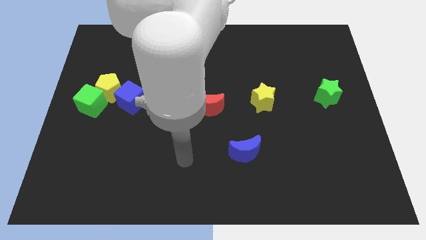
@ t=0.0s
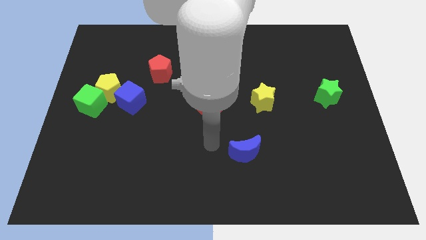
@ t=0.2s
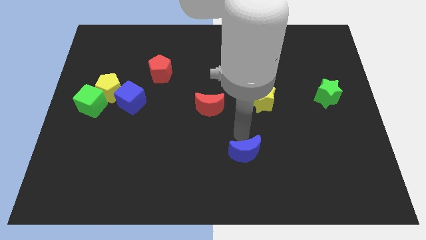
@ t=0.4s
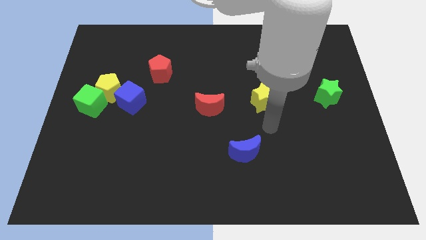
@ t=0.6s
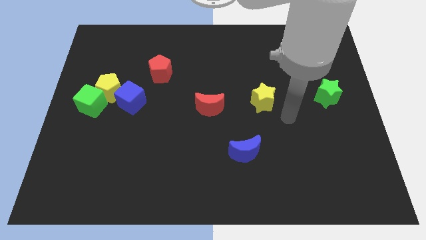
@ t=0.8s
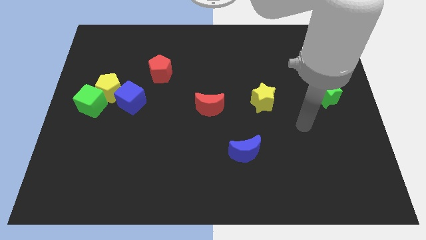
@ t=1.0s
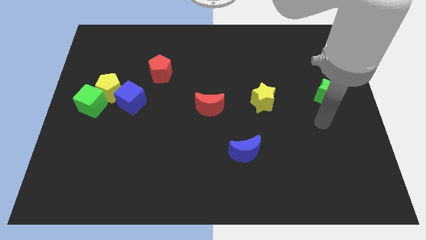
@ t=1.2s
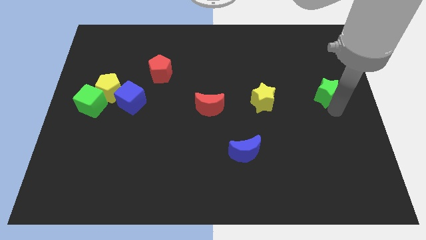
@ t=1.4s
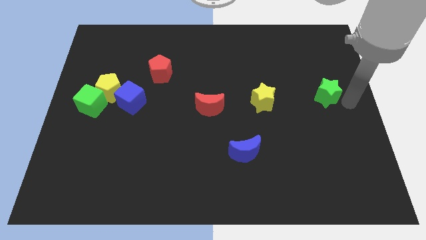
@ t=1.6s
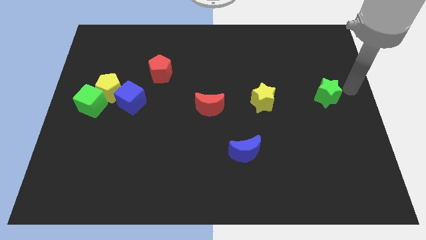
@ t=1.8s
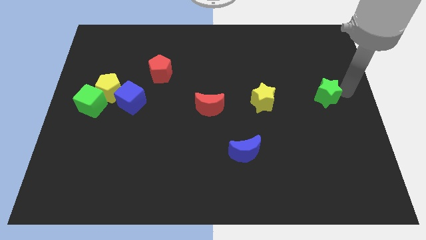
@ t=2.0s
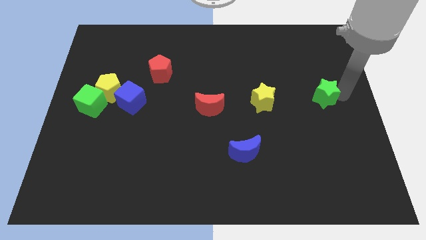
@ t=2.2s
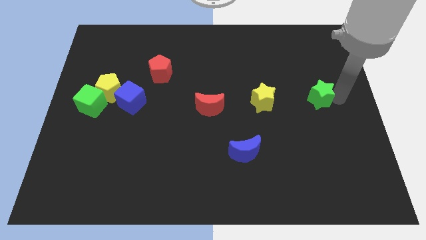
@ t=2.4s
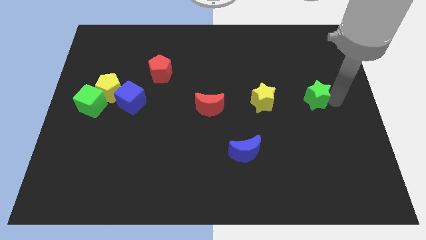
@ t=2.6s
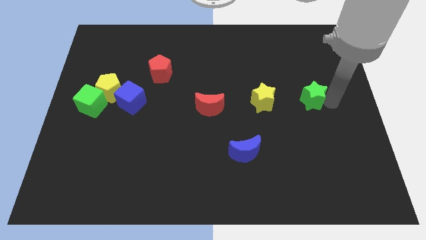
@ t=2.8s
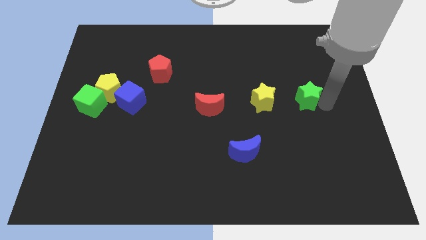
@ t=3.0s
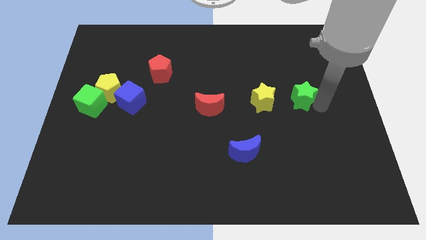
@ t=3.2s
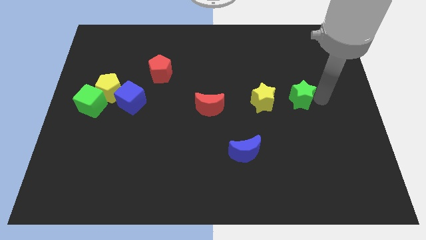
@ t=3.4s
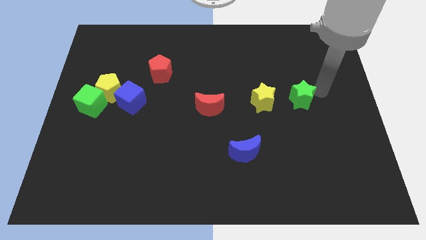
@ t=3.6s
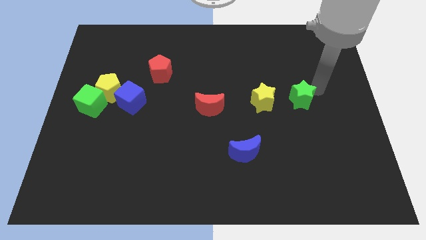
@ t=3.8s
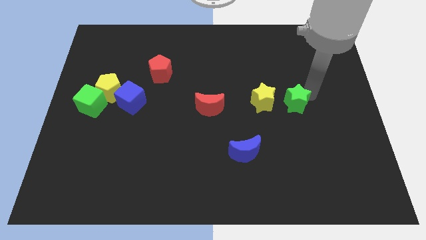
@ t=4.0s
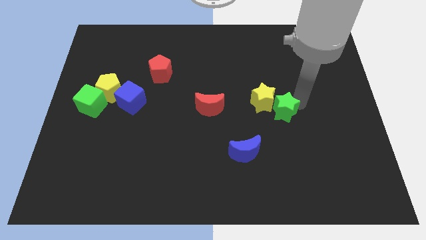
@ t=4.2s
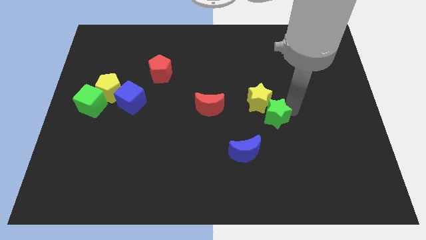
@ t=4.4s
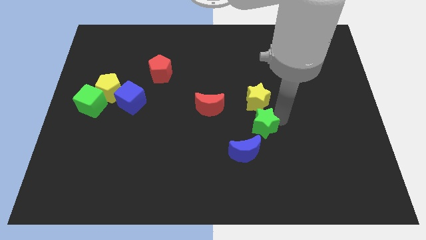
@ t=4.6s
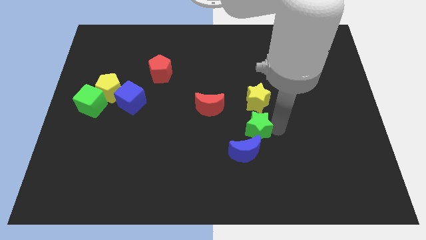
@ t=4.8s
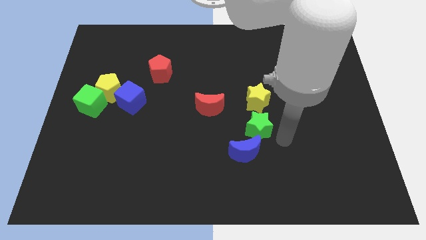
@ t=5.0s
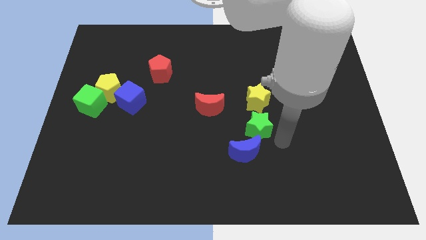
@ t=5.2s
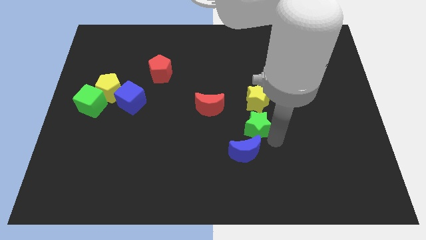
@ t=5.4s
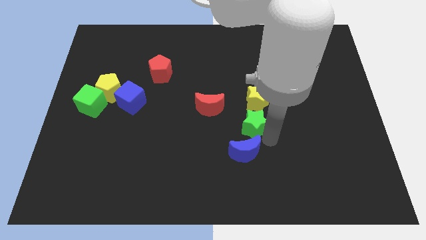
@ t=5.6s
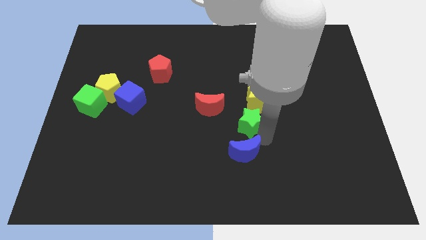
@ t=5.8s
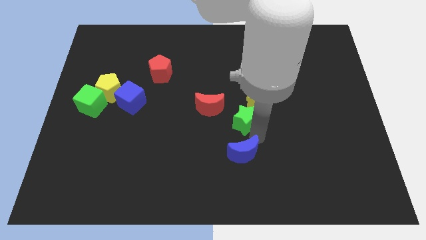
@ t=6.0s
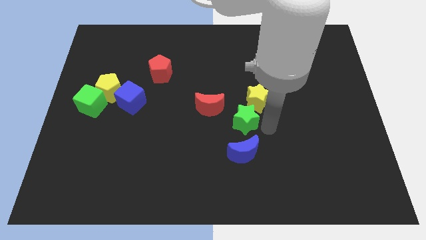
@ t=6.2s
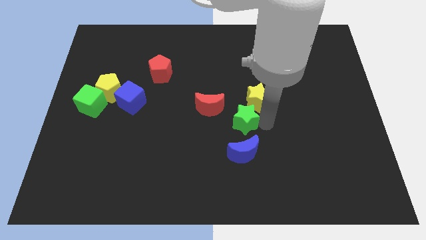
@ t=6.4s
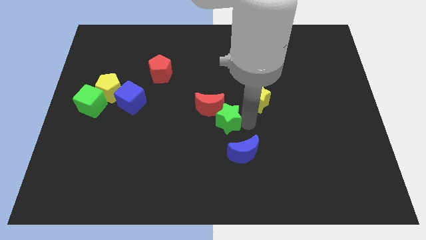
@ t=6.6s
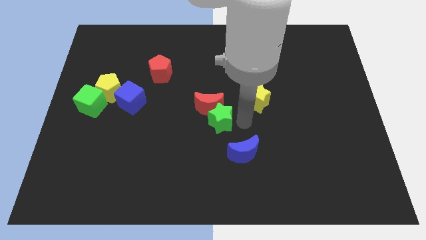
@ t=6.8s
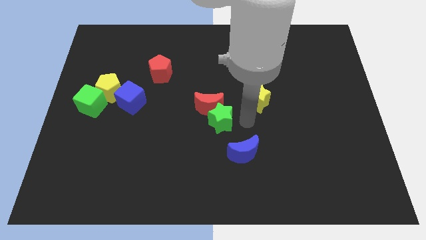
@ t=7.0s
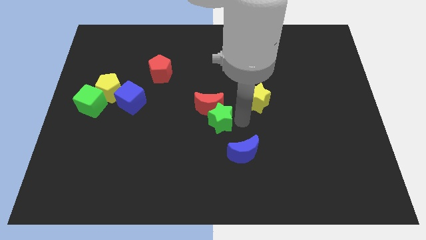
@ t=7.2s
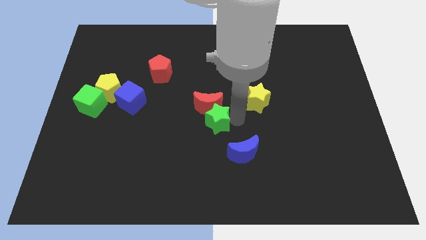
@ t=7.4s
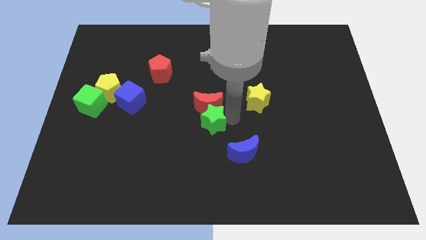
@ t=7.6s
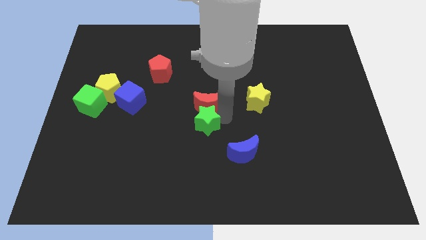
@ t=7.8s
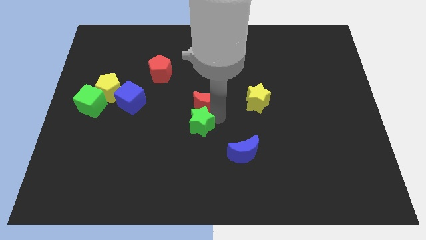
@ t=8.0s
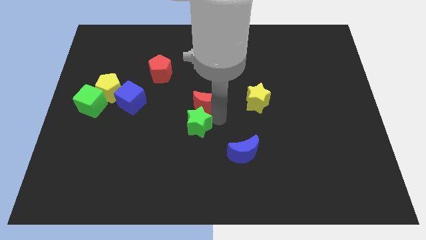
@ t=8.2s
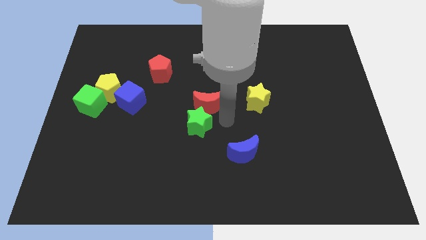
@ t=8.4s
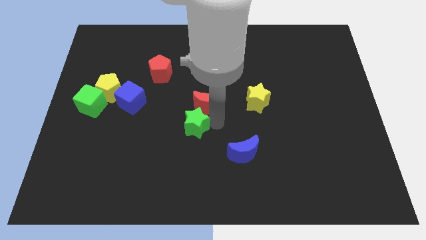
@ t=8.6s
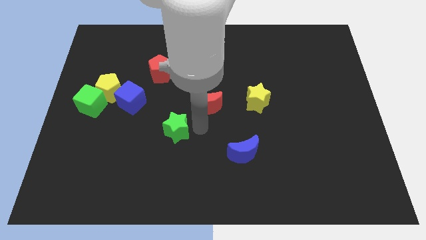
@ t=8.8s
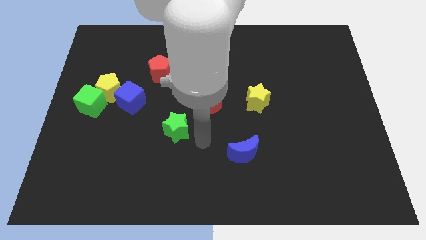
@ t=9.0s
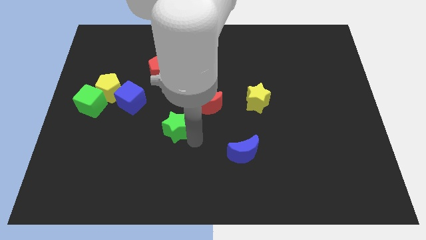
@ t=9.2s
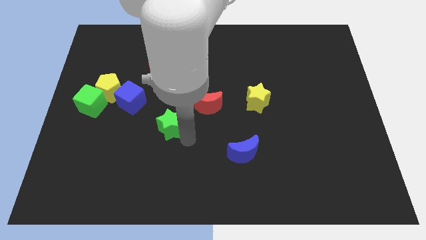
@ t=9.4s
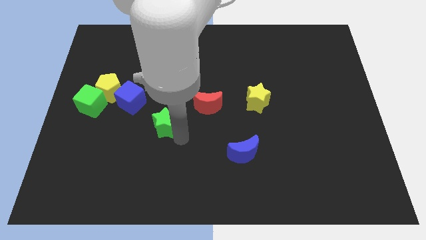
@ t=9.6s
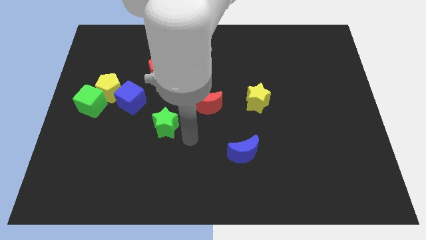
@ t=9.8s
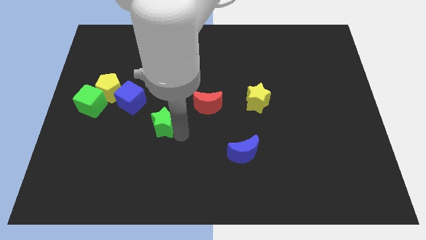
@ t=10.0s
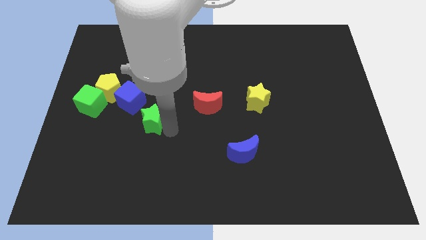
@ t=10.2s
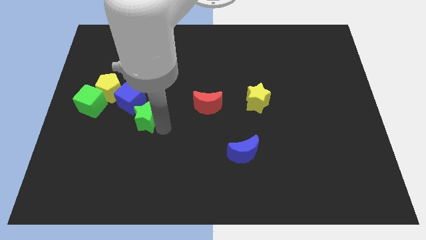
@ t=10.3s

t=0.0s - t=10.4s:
push the green star to the bottom right of the yellow pentagon
